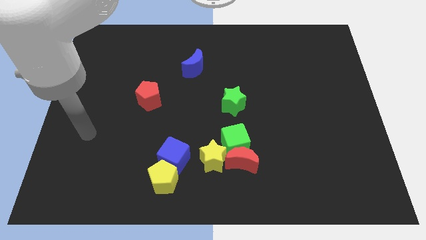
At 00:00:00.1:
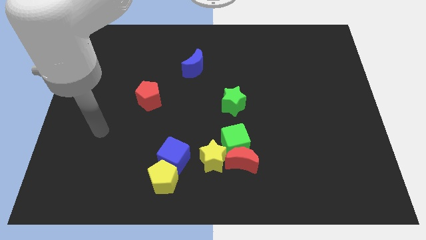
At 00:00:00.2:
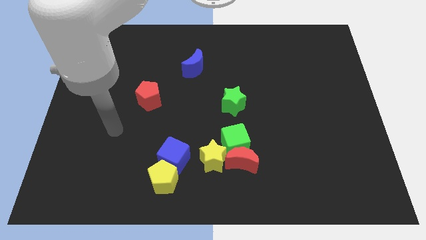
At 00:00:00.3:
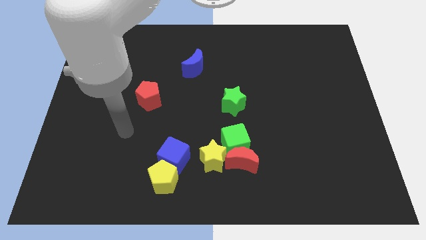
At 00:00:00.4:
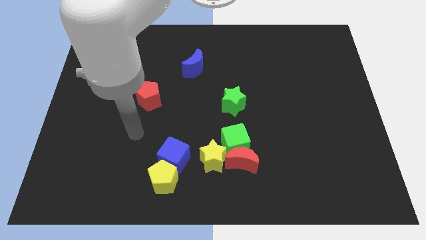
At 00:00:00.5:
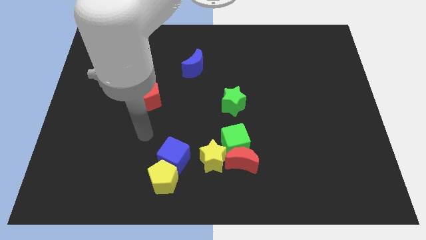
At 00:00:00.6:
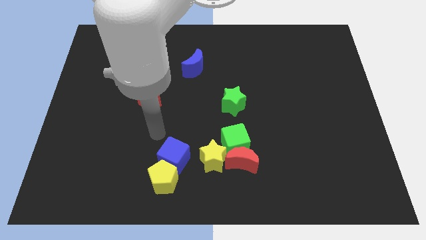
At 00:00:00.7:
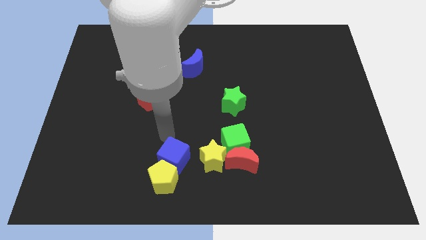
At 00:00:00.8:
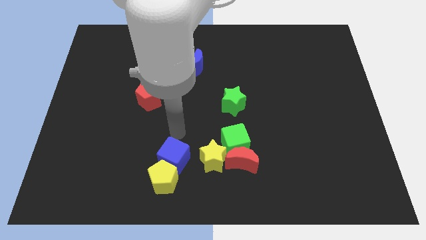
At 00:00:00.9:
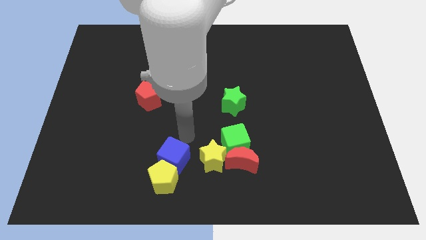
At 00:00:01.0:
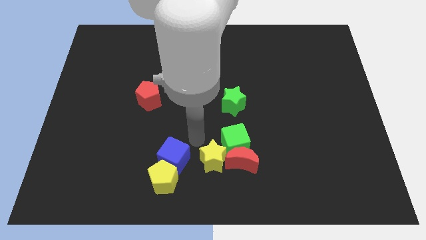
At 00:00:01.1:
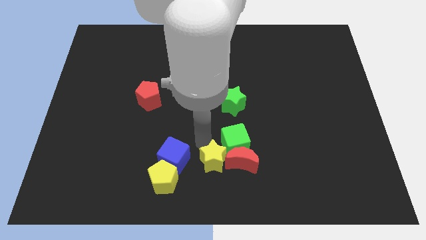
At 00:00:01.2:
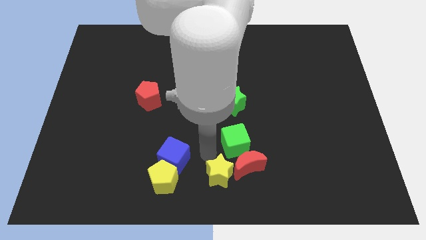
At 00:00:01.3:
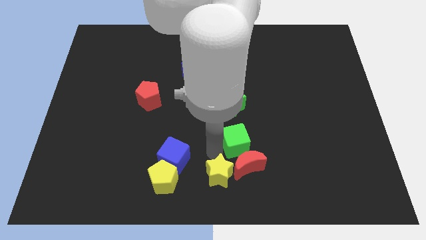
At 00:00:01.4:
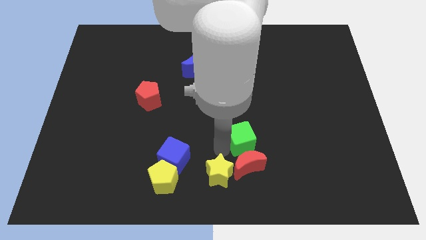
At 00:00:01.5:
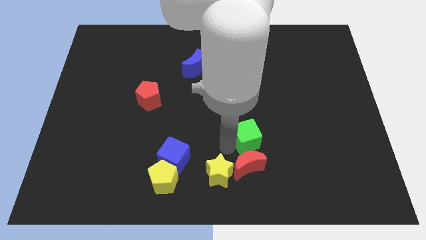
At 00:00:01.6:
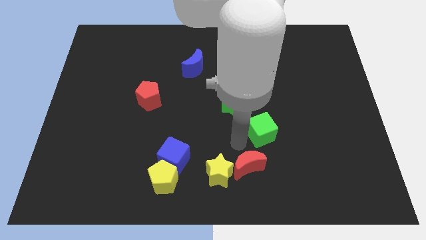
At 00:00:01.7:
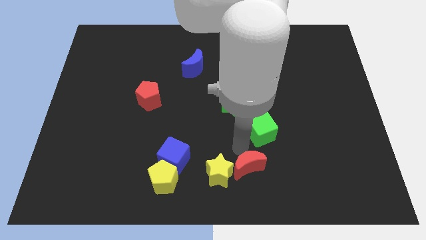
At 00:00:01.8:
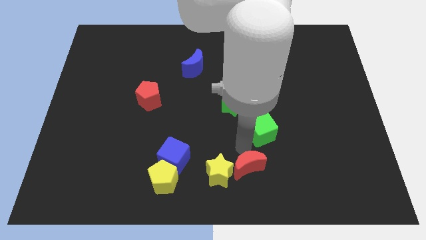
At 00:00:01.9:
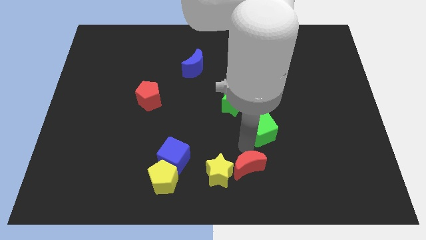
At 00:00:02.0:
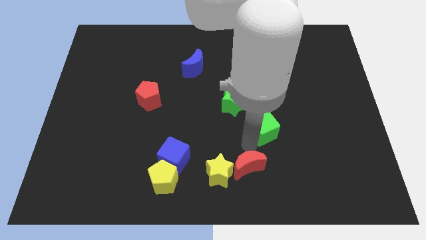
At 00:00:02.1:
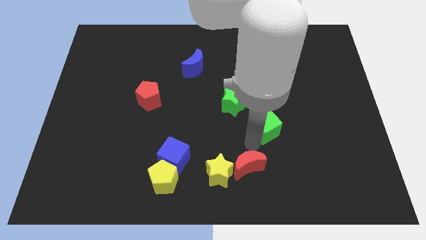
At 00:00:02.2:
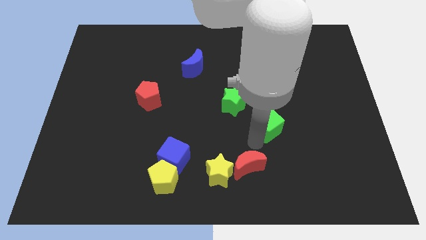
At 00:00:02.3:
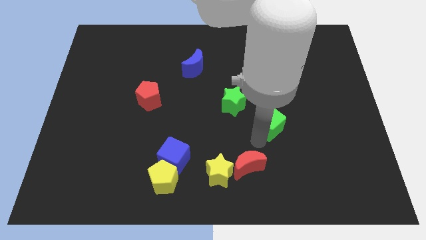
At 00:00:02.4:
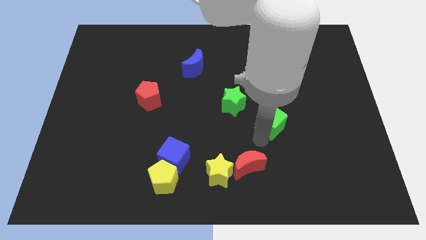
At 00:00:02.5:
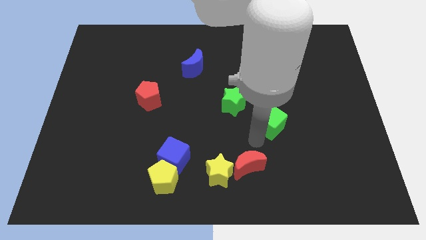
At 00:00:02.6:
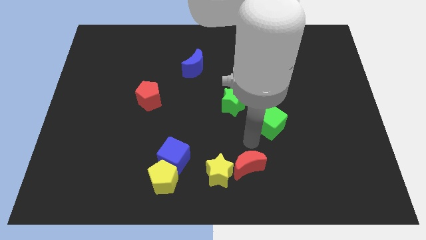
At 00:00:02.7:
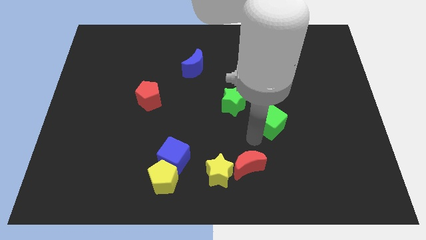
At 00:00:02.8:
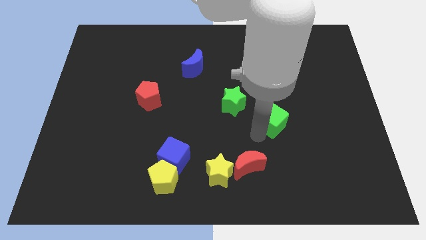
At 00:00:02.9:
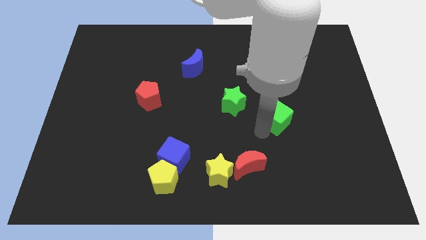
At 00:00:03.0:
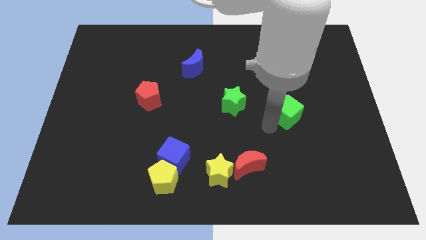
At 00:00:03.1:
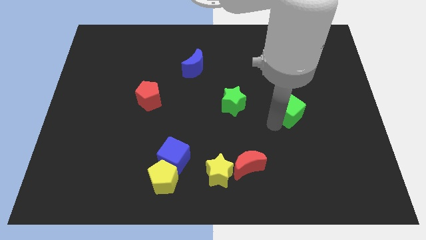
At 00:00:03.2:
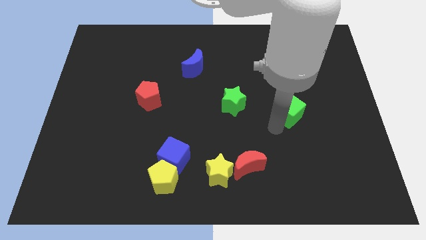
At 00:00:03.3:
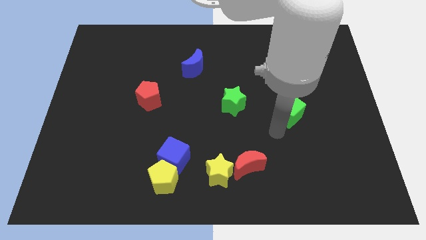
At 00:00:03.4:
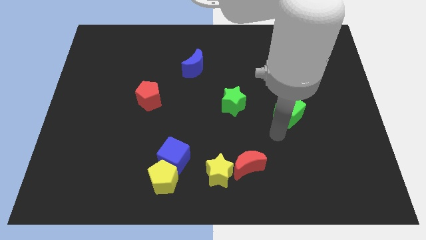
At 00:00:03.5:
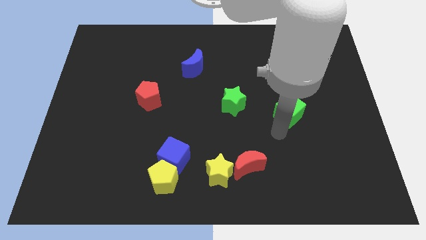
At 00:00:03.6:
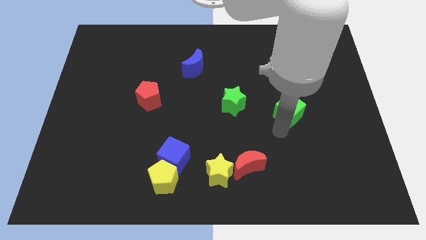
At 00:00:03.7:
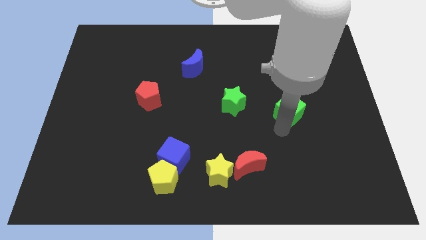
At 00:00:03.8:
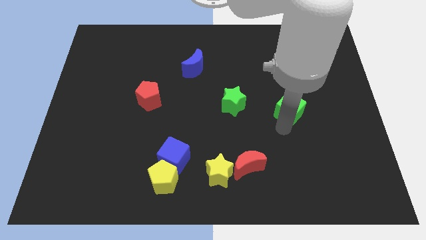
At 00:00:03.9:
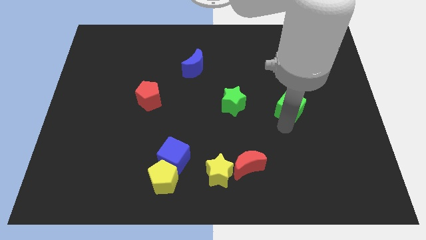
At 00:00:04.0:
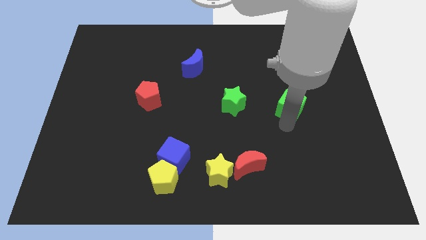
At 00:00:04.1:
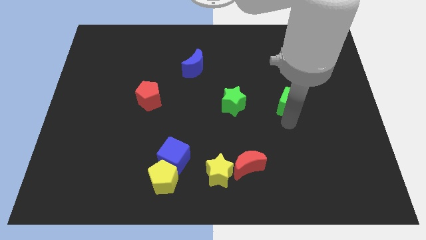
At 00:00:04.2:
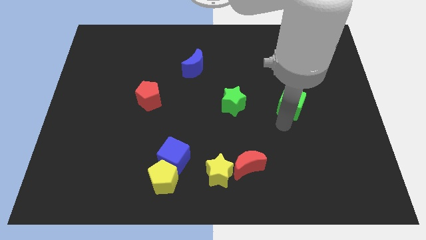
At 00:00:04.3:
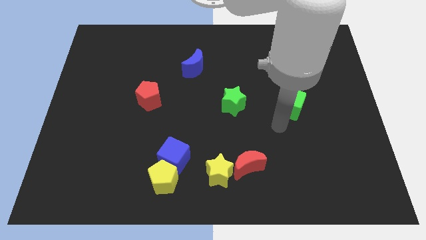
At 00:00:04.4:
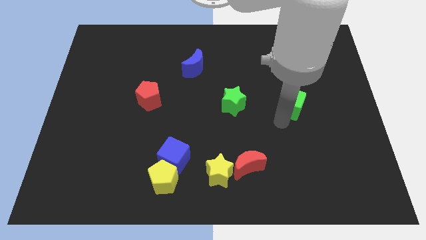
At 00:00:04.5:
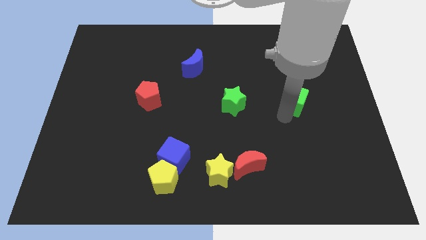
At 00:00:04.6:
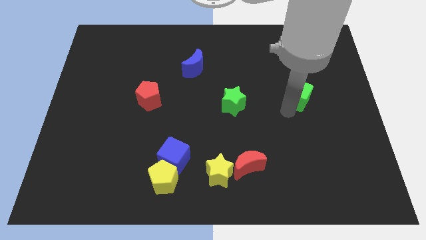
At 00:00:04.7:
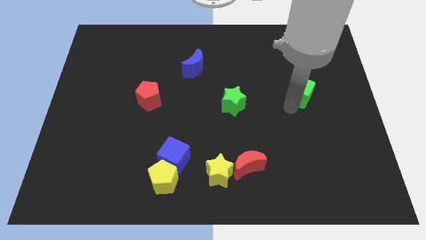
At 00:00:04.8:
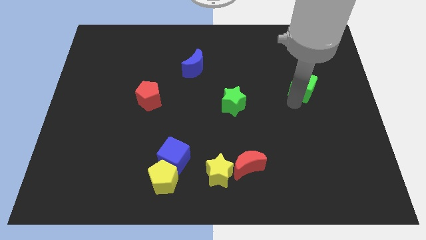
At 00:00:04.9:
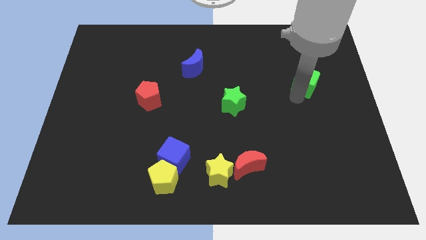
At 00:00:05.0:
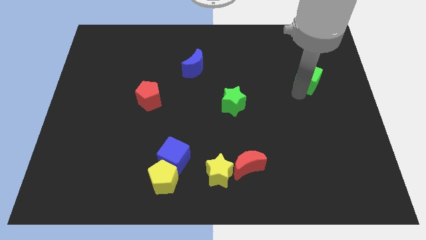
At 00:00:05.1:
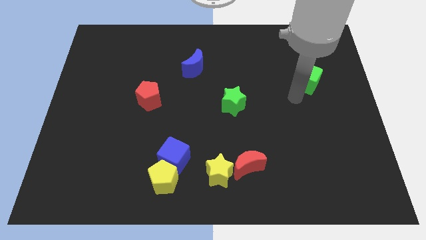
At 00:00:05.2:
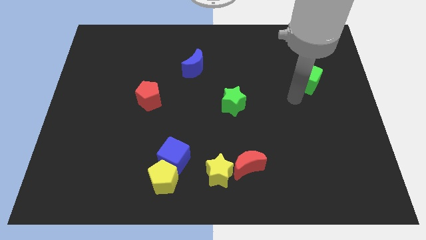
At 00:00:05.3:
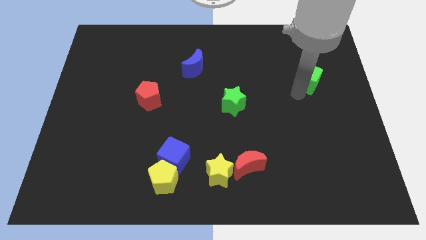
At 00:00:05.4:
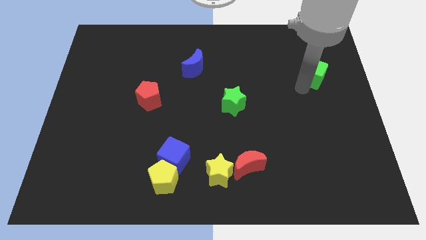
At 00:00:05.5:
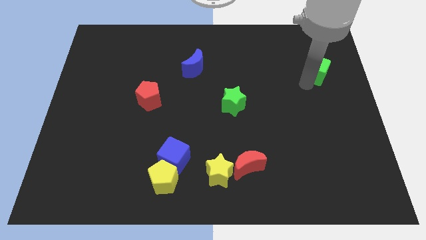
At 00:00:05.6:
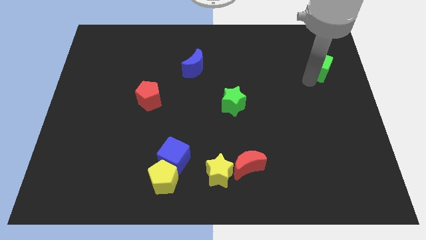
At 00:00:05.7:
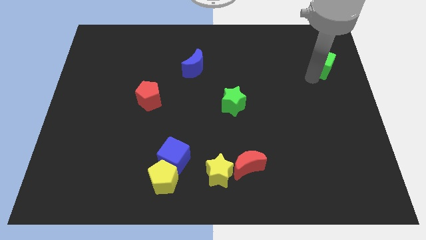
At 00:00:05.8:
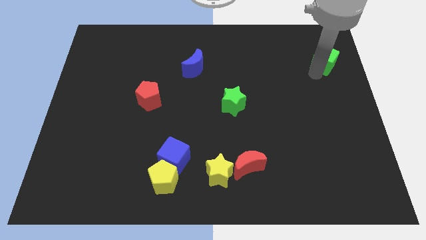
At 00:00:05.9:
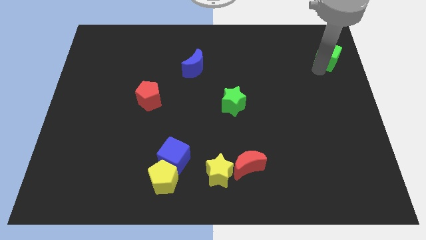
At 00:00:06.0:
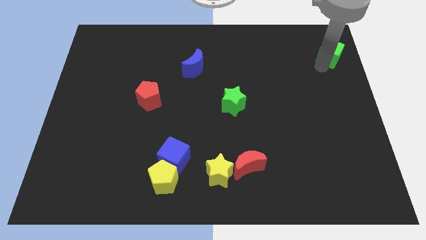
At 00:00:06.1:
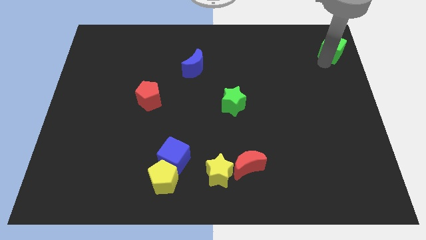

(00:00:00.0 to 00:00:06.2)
move the green cube to the top right of the board
